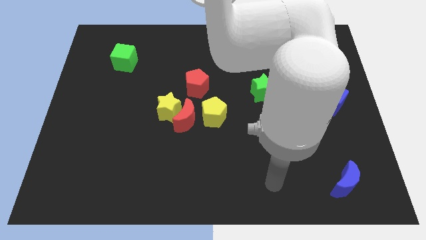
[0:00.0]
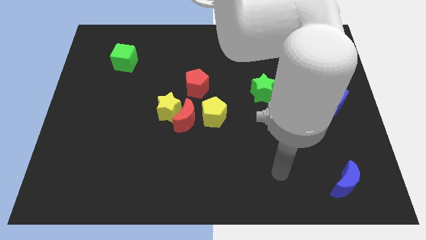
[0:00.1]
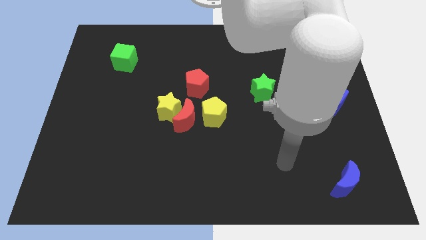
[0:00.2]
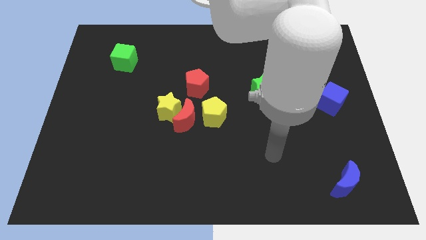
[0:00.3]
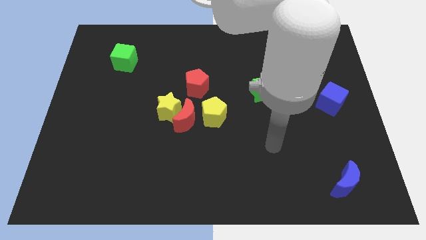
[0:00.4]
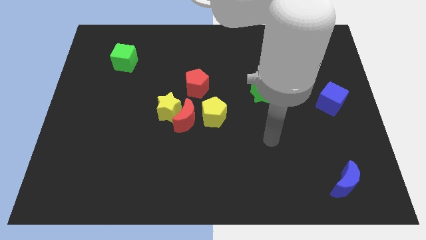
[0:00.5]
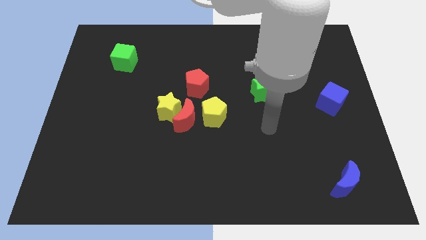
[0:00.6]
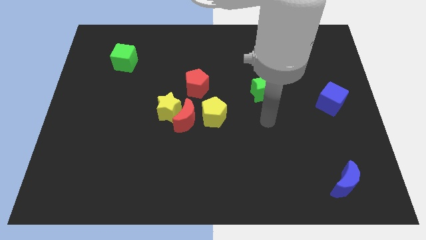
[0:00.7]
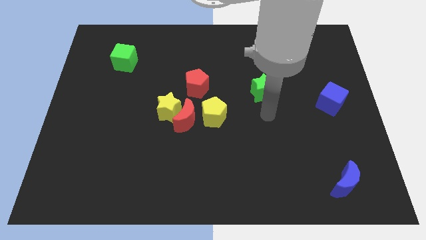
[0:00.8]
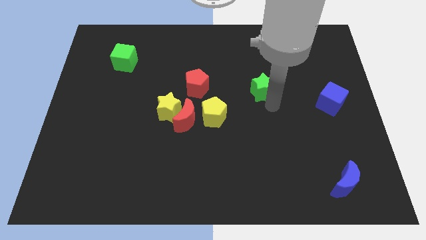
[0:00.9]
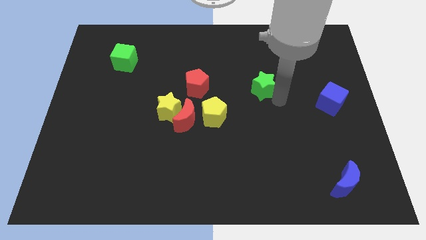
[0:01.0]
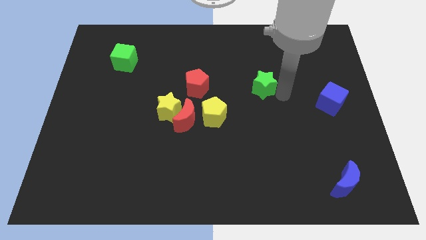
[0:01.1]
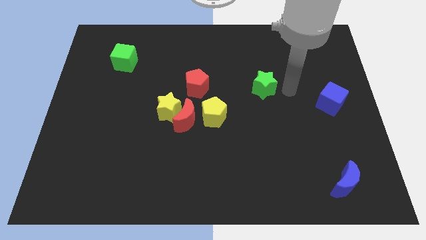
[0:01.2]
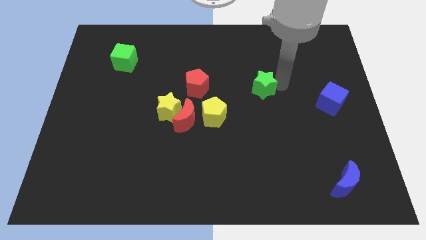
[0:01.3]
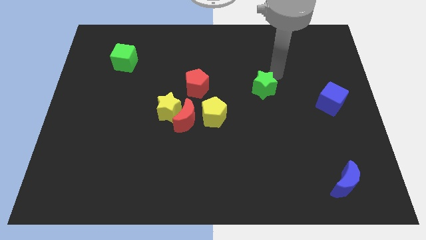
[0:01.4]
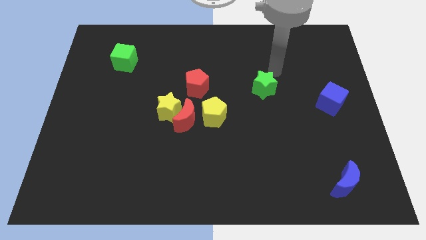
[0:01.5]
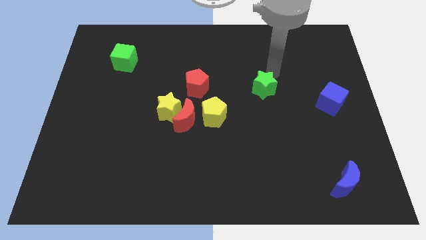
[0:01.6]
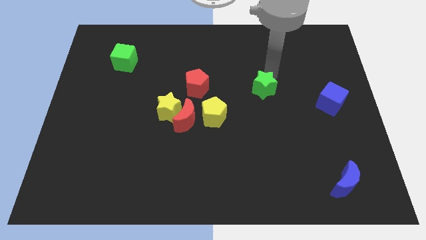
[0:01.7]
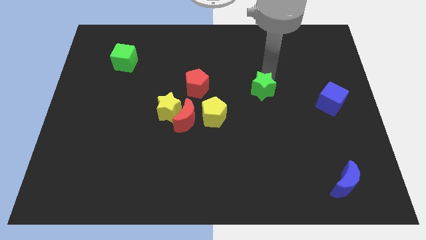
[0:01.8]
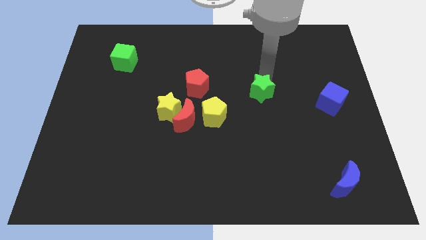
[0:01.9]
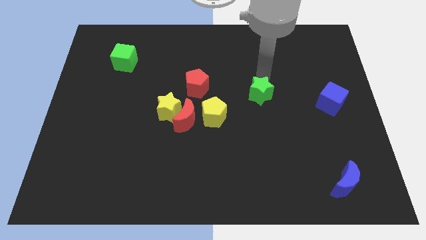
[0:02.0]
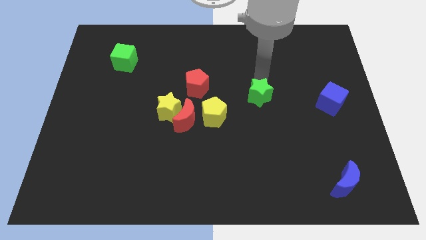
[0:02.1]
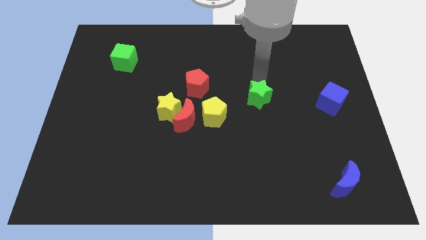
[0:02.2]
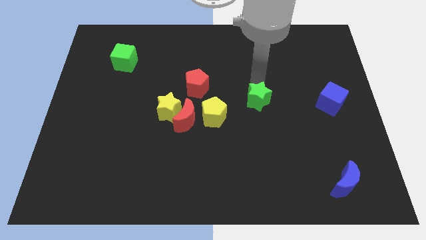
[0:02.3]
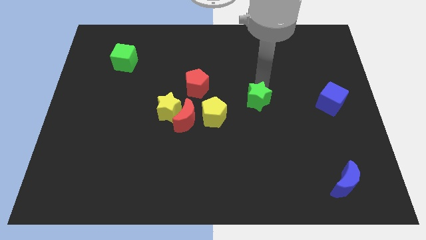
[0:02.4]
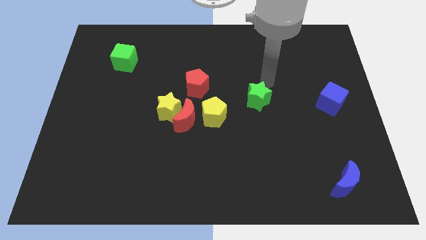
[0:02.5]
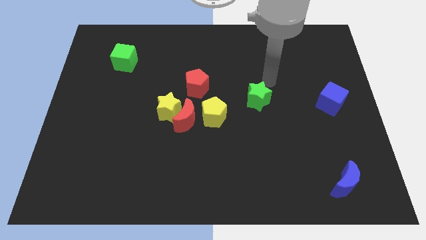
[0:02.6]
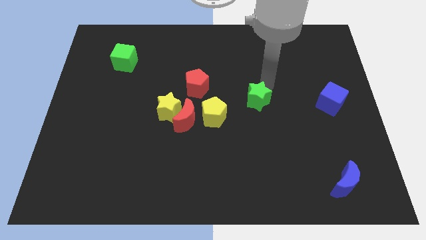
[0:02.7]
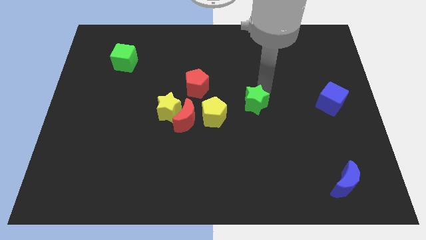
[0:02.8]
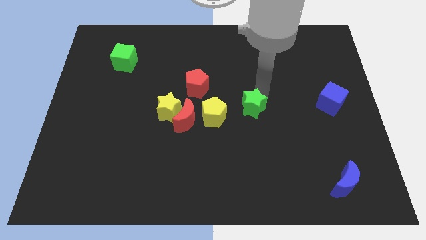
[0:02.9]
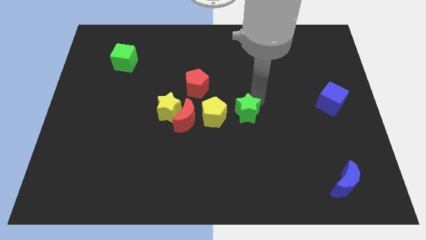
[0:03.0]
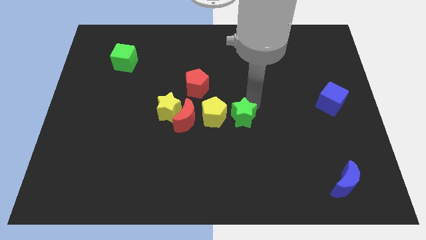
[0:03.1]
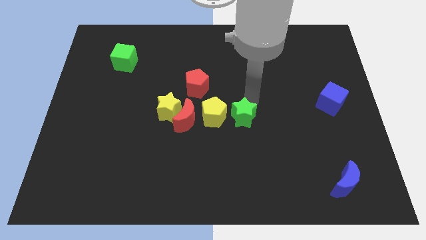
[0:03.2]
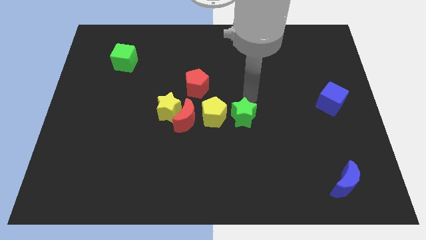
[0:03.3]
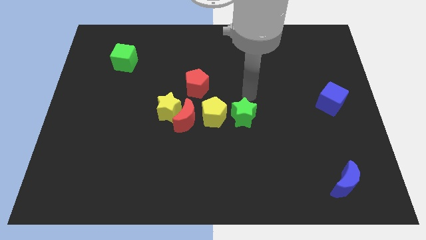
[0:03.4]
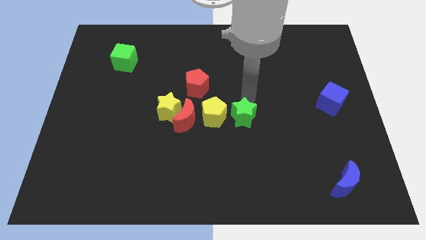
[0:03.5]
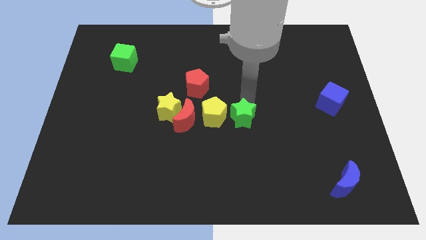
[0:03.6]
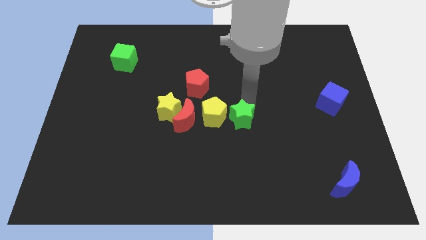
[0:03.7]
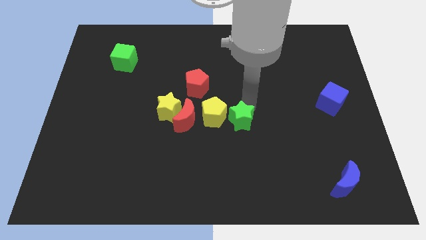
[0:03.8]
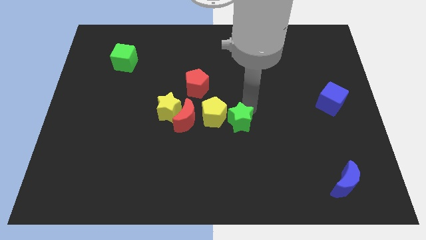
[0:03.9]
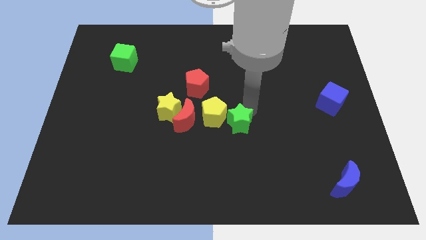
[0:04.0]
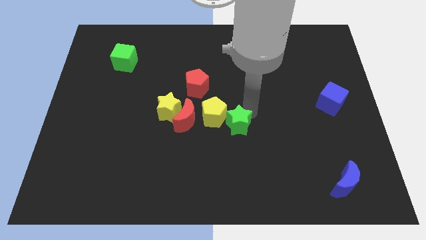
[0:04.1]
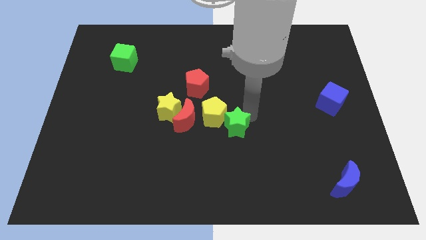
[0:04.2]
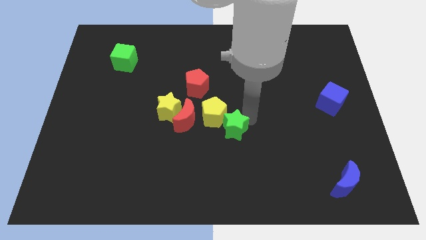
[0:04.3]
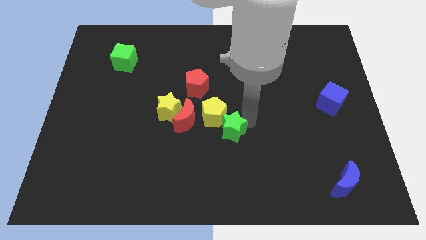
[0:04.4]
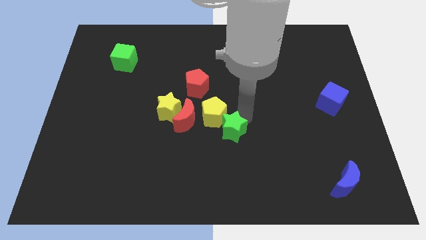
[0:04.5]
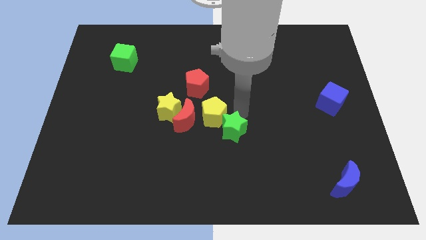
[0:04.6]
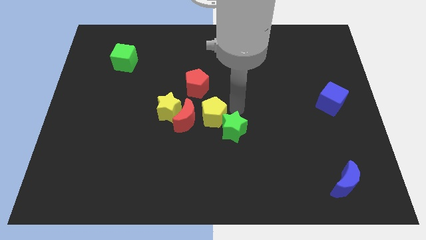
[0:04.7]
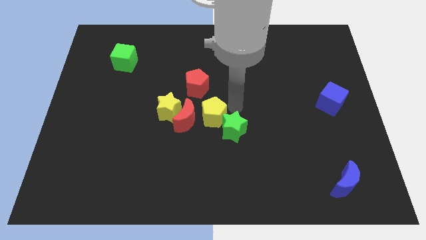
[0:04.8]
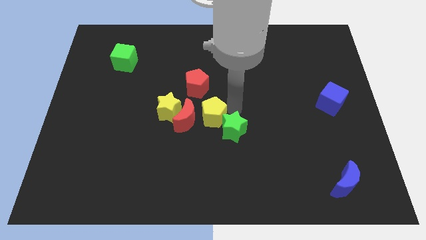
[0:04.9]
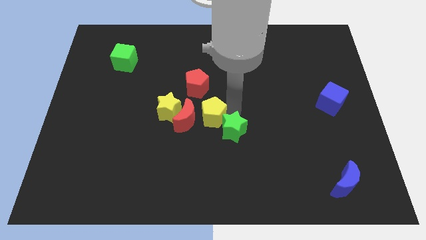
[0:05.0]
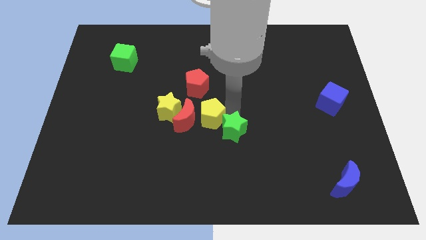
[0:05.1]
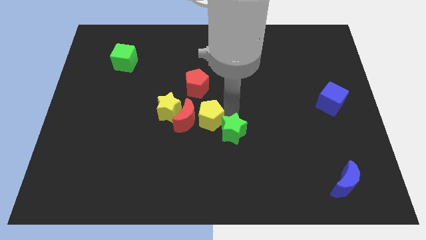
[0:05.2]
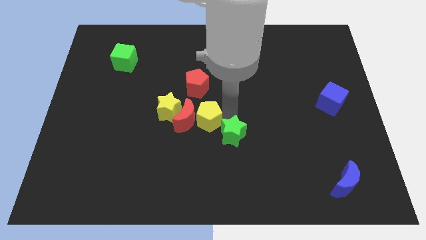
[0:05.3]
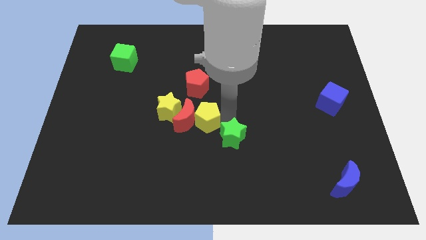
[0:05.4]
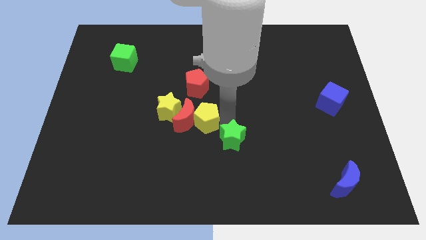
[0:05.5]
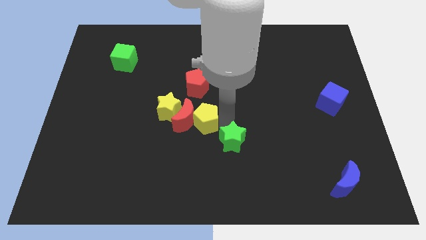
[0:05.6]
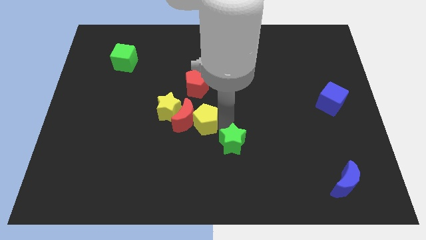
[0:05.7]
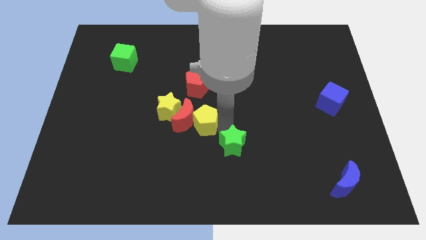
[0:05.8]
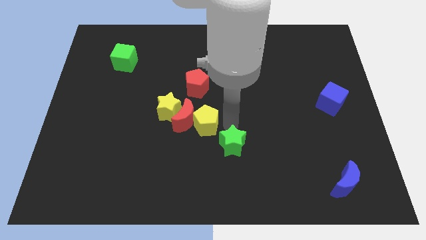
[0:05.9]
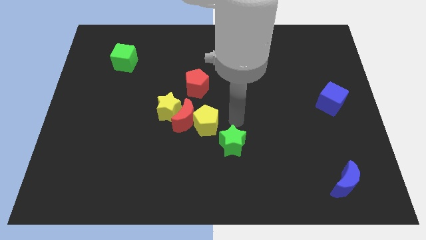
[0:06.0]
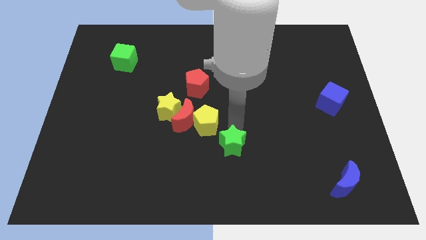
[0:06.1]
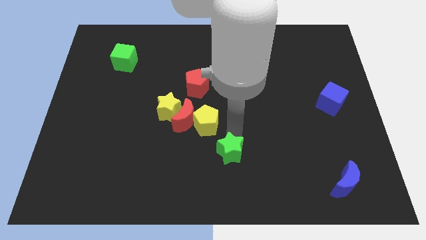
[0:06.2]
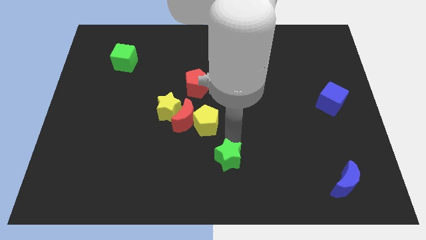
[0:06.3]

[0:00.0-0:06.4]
move the green star to the bottom
